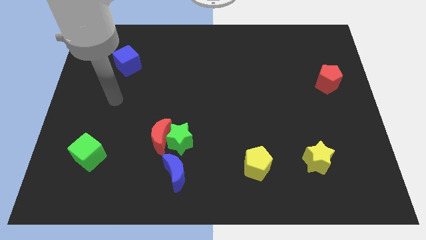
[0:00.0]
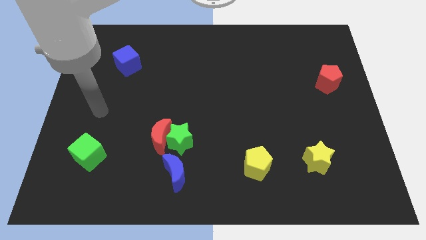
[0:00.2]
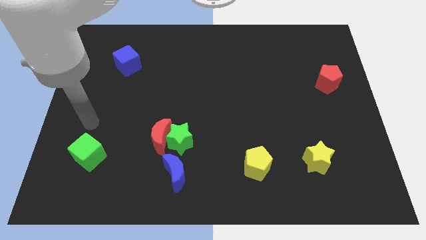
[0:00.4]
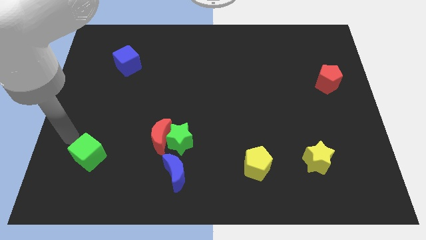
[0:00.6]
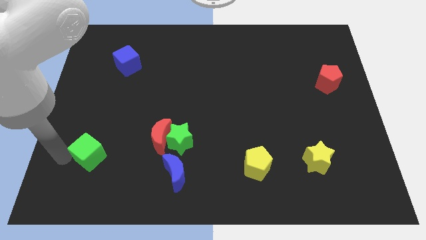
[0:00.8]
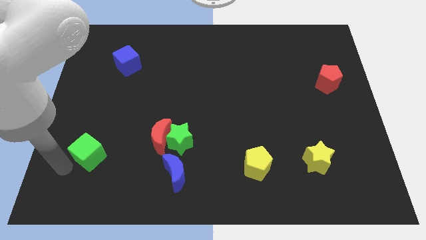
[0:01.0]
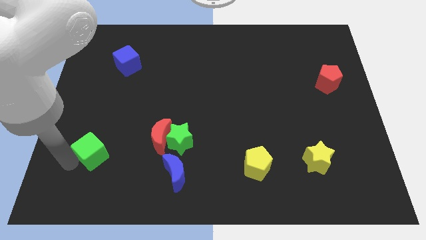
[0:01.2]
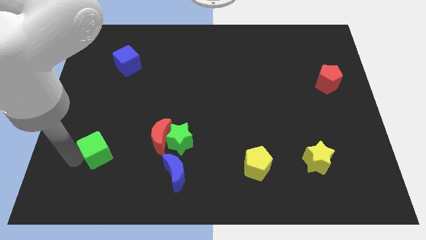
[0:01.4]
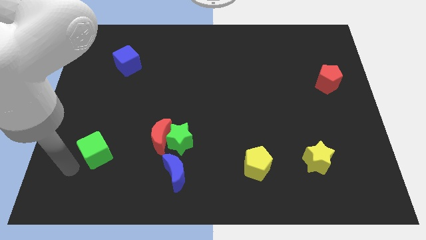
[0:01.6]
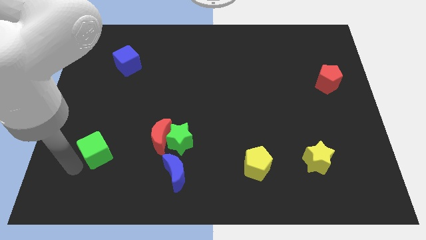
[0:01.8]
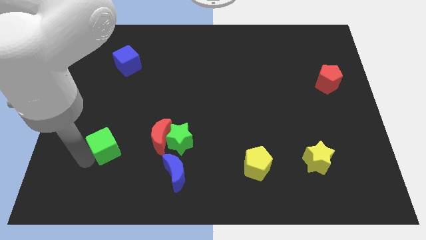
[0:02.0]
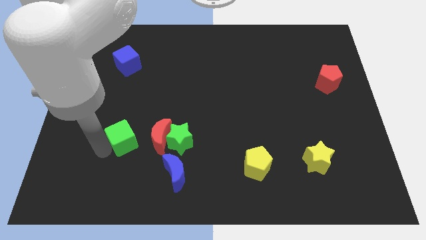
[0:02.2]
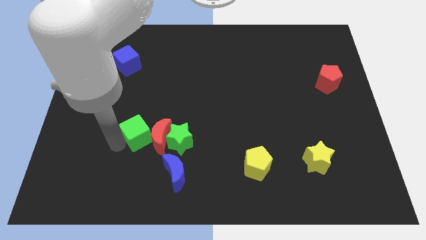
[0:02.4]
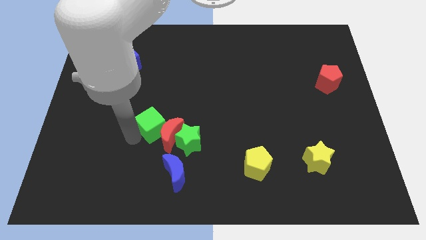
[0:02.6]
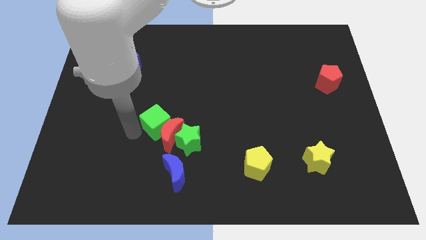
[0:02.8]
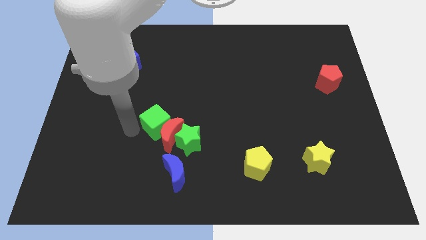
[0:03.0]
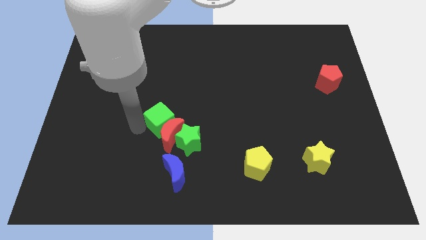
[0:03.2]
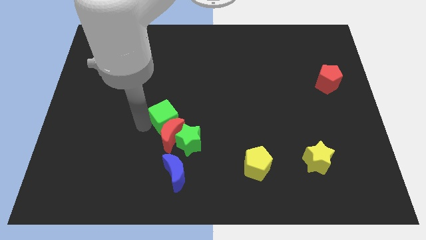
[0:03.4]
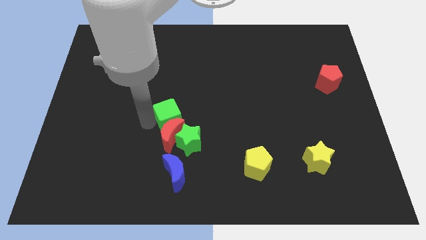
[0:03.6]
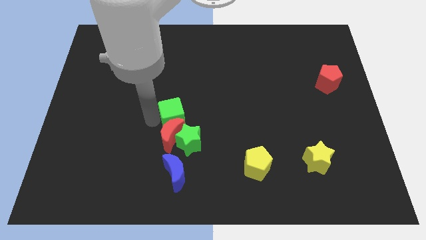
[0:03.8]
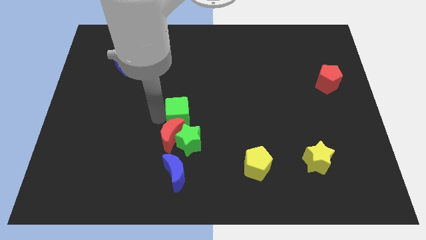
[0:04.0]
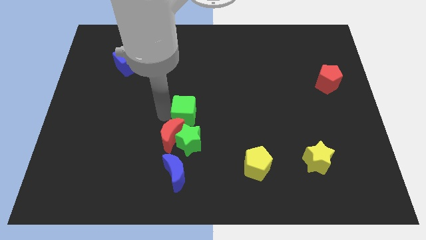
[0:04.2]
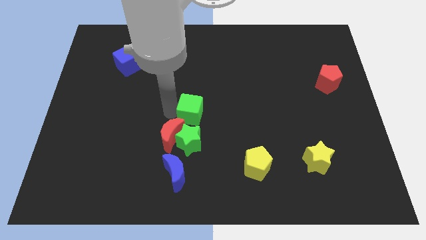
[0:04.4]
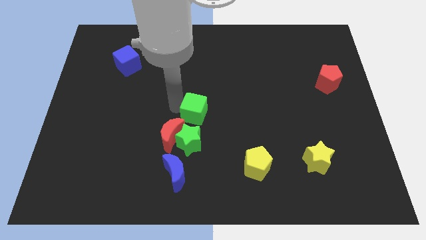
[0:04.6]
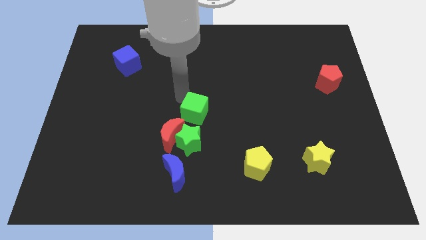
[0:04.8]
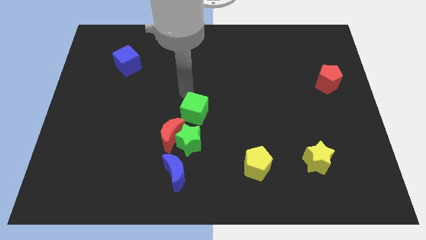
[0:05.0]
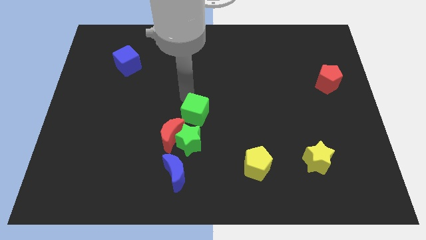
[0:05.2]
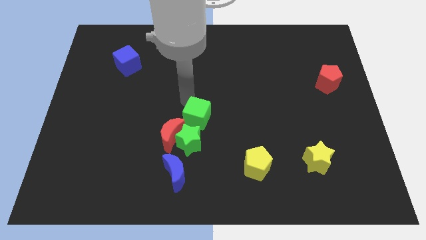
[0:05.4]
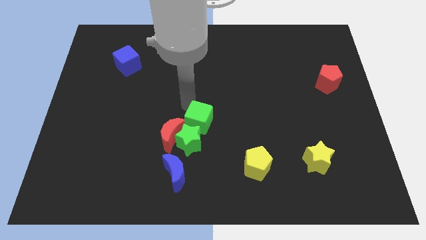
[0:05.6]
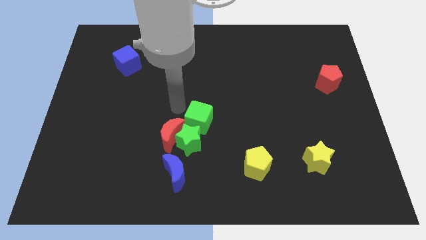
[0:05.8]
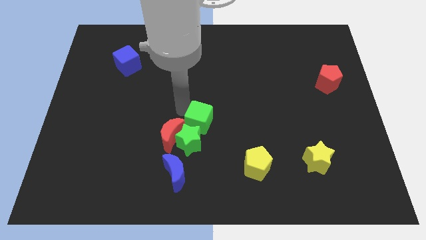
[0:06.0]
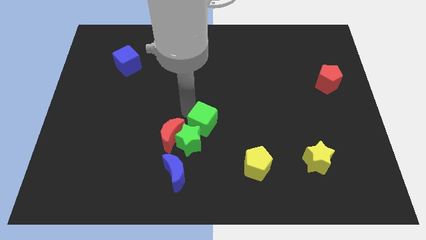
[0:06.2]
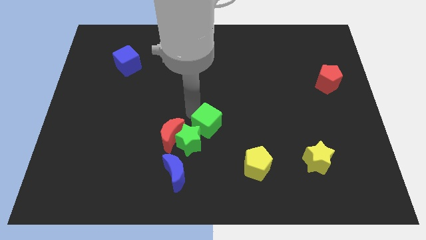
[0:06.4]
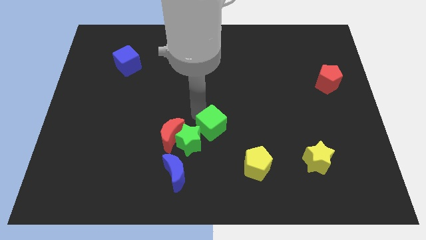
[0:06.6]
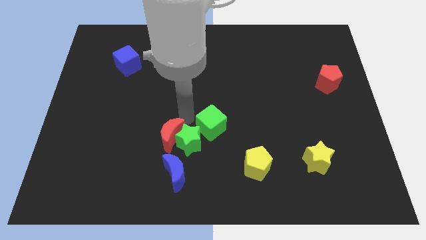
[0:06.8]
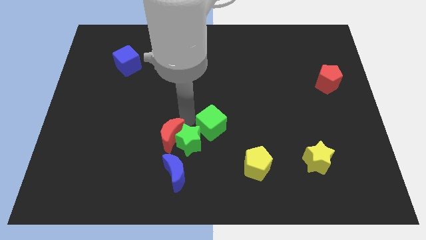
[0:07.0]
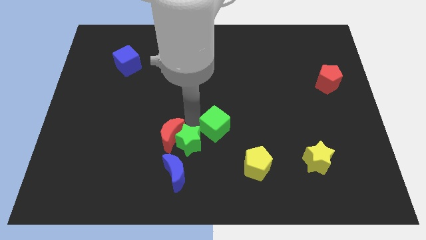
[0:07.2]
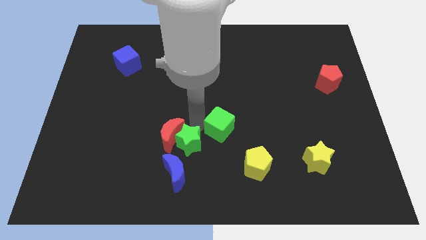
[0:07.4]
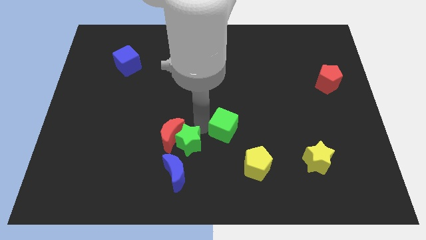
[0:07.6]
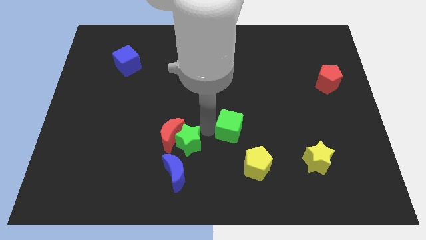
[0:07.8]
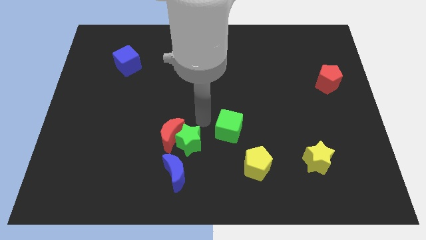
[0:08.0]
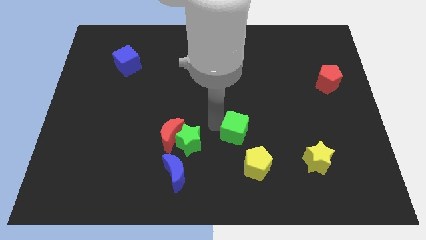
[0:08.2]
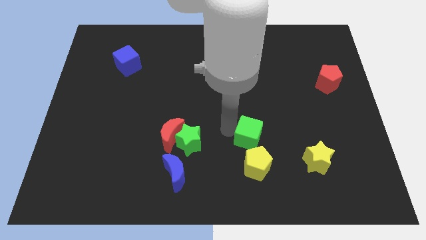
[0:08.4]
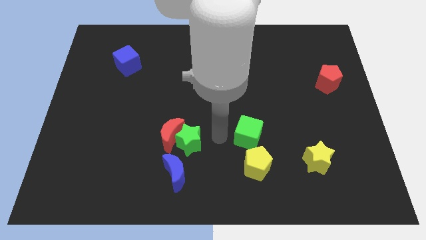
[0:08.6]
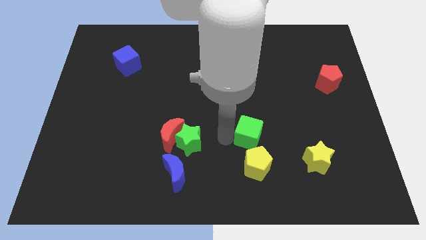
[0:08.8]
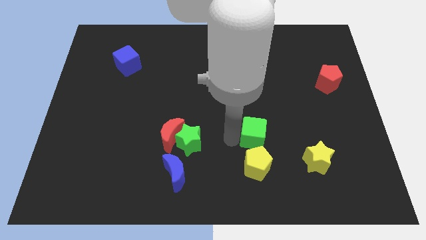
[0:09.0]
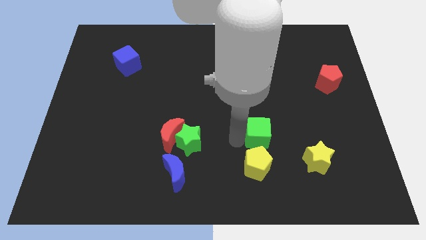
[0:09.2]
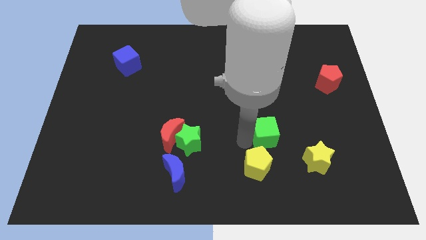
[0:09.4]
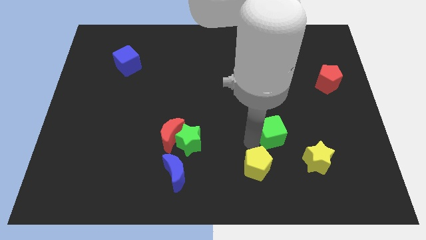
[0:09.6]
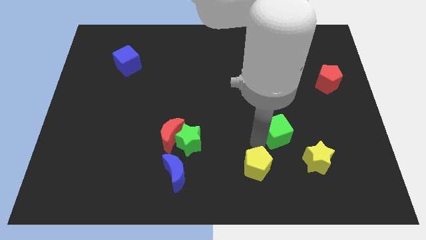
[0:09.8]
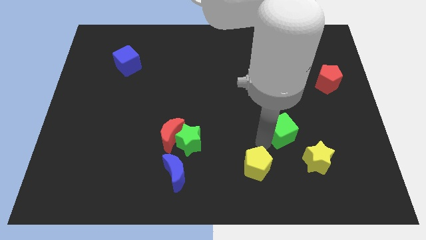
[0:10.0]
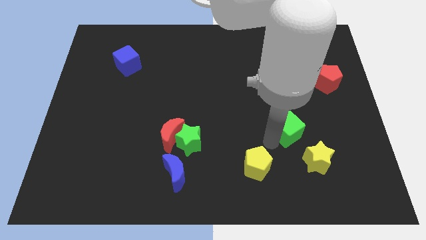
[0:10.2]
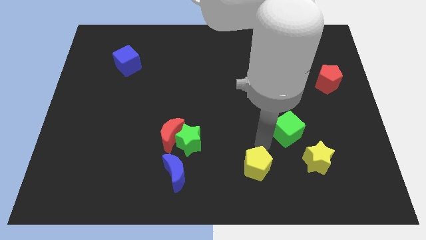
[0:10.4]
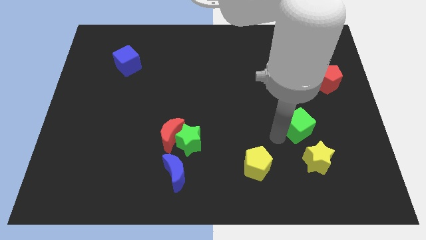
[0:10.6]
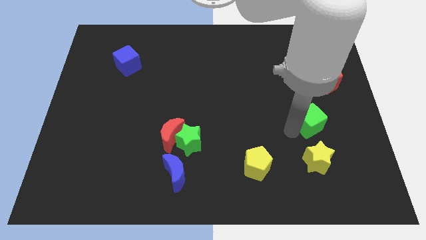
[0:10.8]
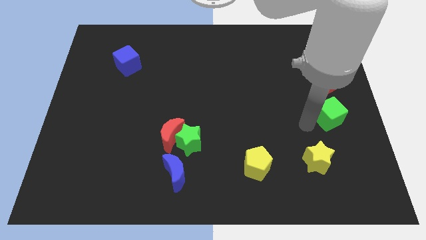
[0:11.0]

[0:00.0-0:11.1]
push the green cube to the right side of the board

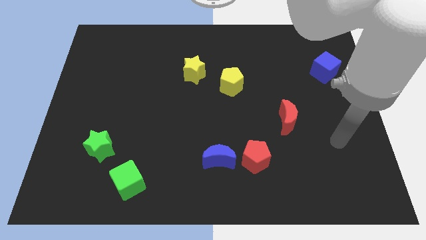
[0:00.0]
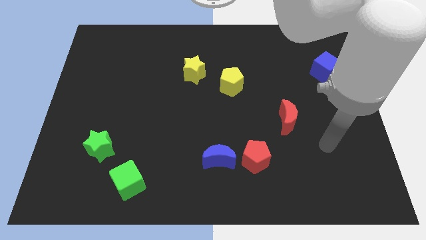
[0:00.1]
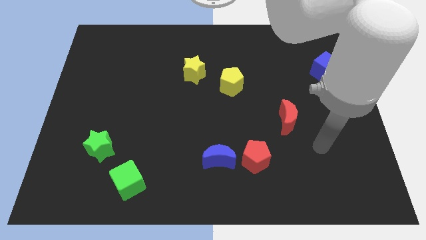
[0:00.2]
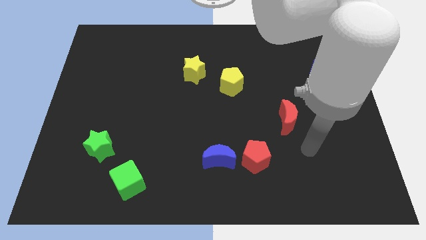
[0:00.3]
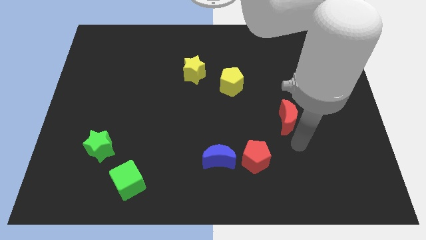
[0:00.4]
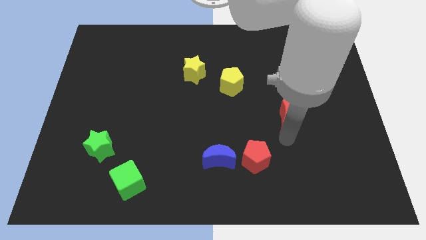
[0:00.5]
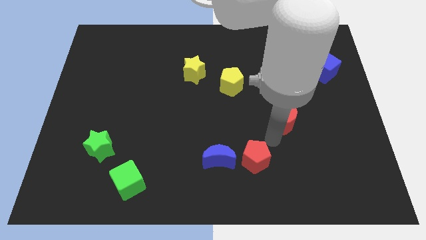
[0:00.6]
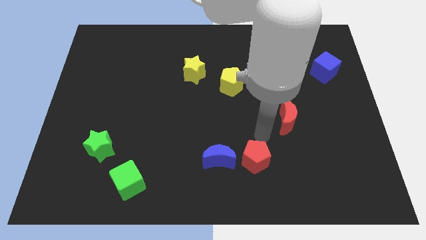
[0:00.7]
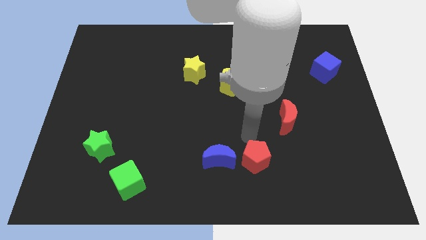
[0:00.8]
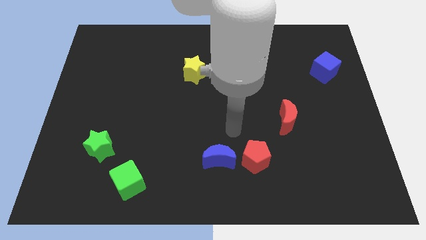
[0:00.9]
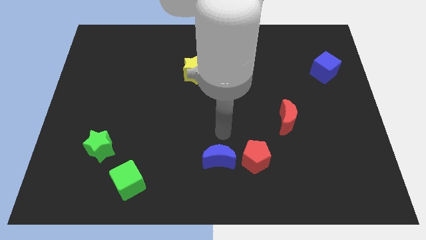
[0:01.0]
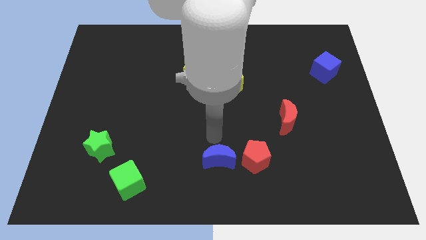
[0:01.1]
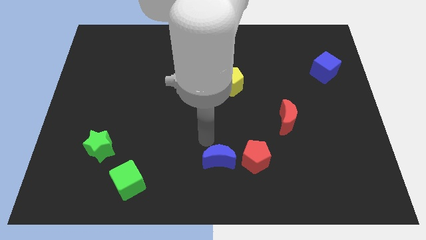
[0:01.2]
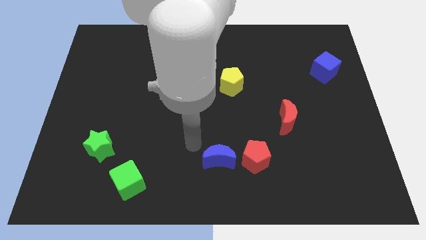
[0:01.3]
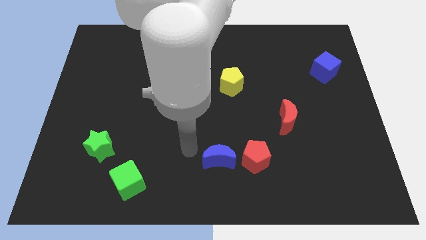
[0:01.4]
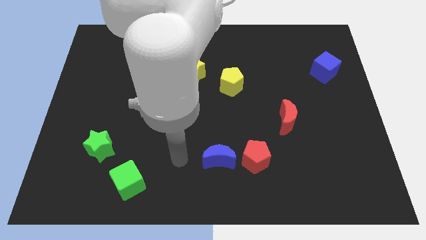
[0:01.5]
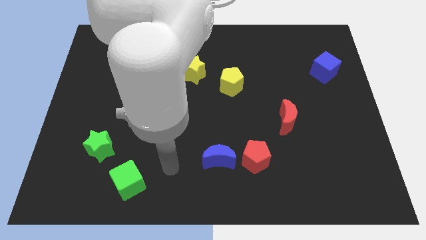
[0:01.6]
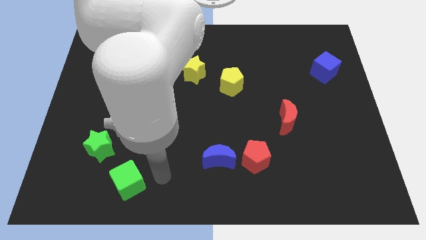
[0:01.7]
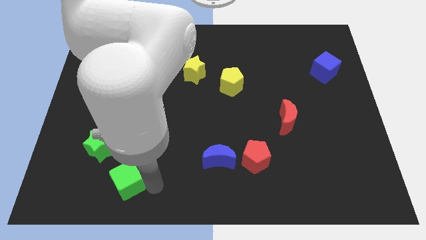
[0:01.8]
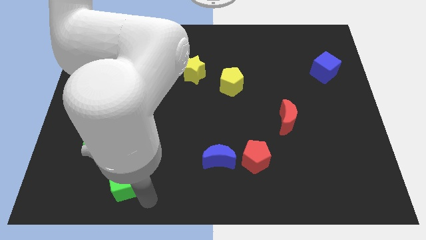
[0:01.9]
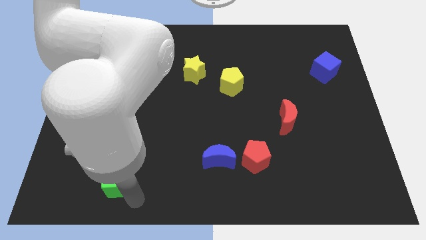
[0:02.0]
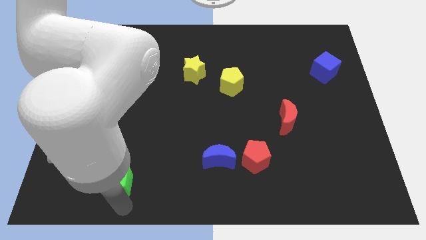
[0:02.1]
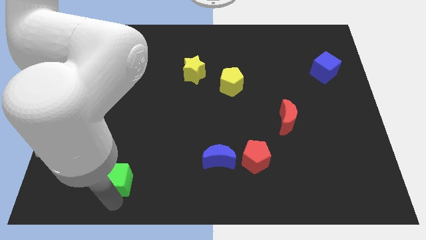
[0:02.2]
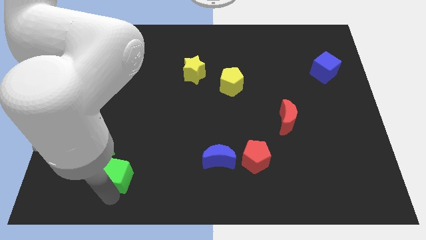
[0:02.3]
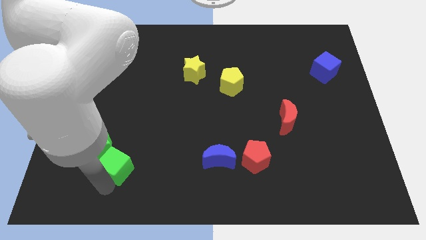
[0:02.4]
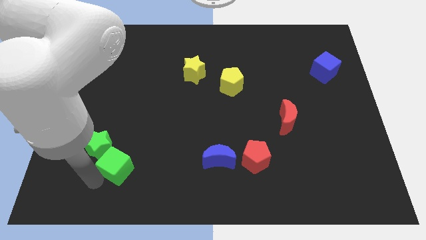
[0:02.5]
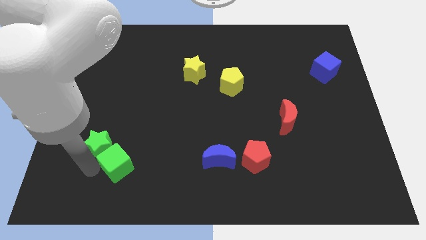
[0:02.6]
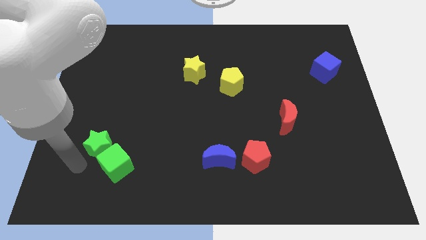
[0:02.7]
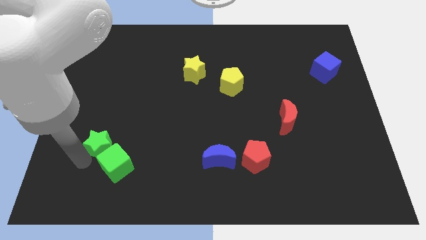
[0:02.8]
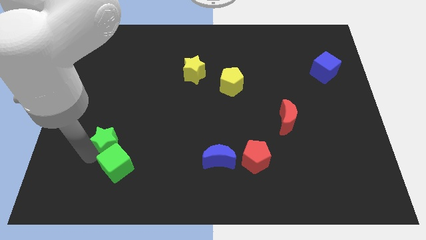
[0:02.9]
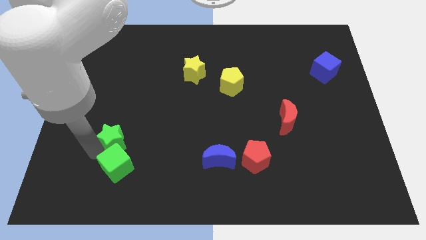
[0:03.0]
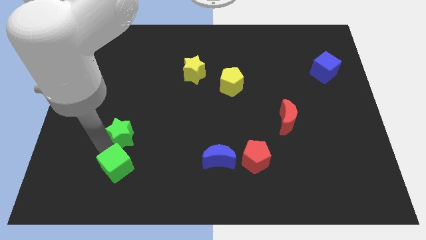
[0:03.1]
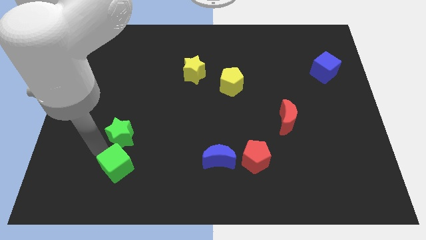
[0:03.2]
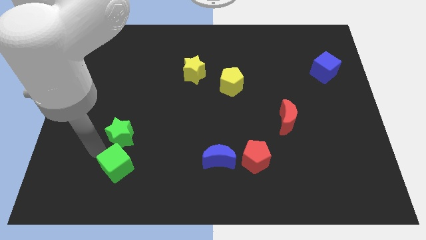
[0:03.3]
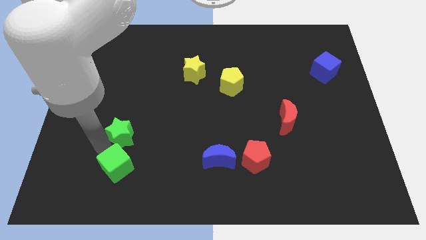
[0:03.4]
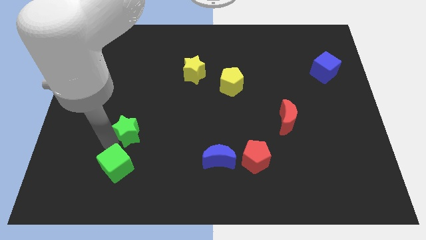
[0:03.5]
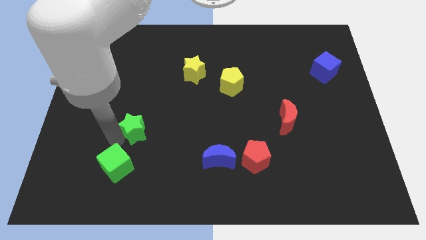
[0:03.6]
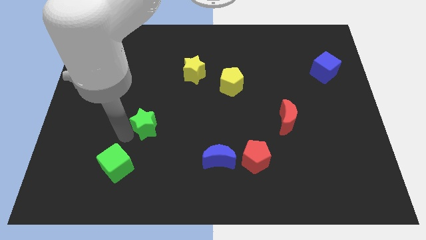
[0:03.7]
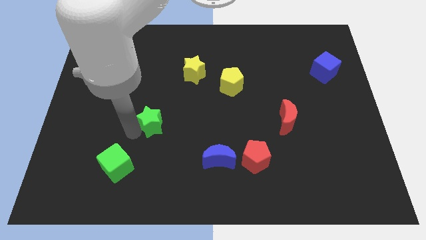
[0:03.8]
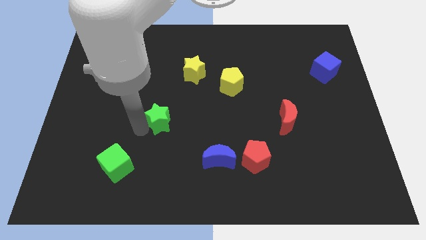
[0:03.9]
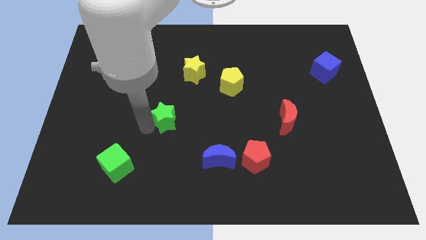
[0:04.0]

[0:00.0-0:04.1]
slide the green star to the center of the board
